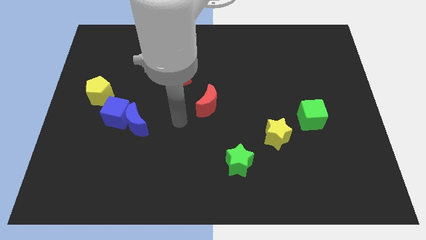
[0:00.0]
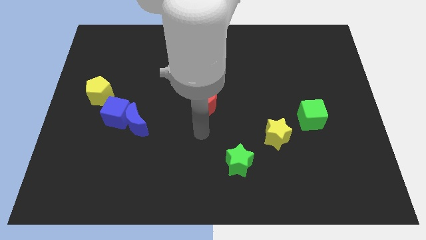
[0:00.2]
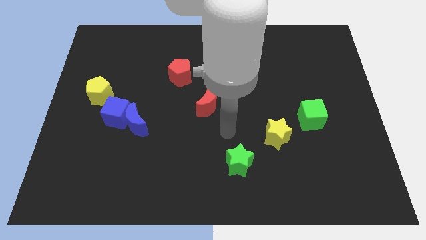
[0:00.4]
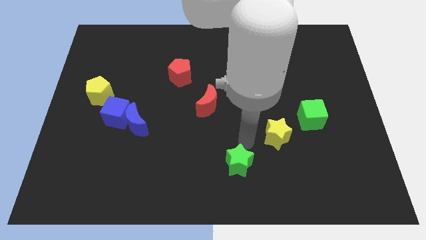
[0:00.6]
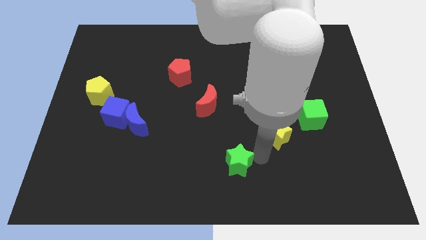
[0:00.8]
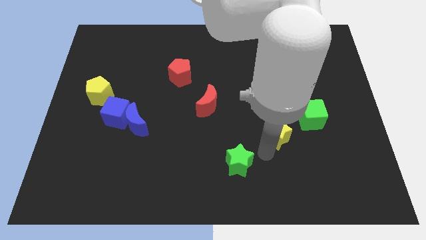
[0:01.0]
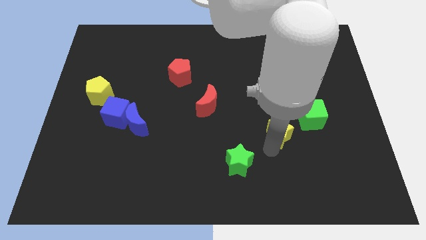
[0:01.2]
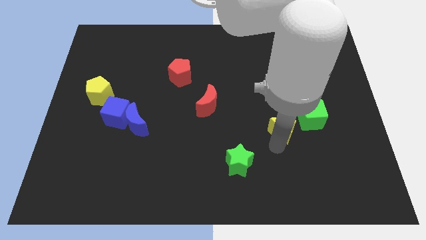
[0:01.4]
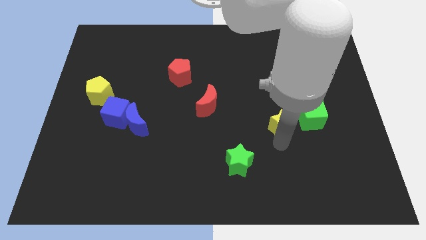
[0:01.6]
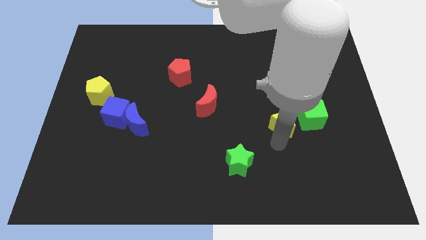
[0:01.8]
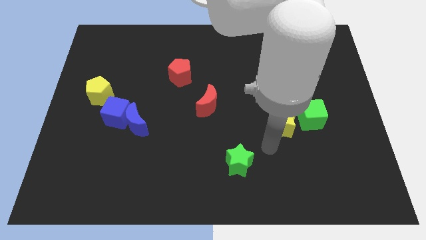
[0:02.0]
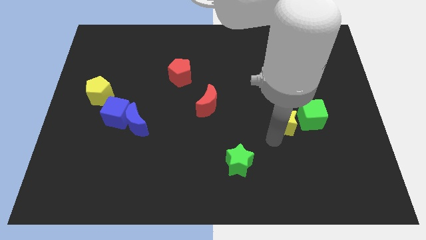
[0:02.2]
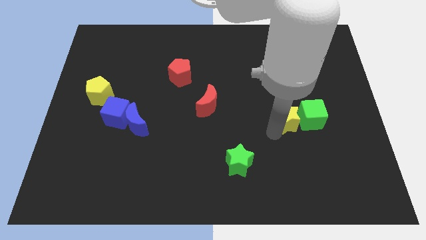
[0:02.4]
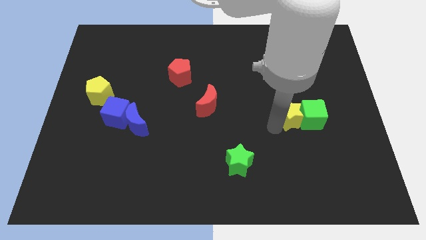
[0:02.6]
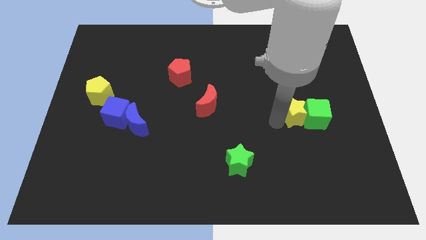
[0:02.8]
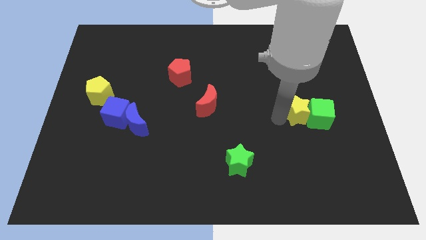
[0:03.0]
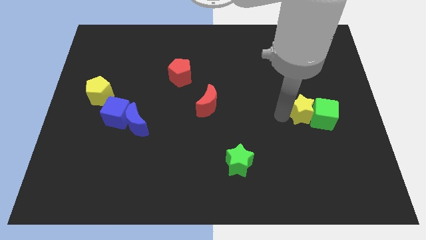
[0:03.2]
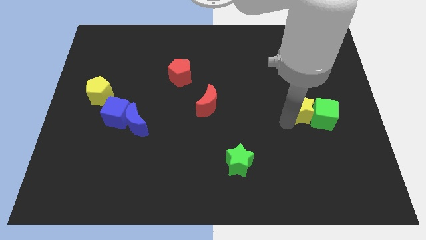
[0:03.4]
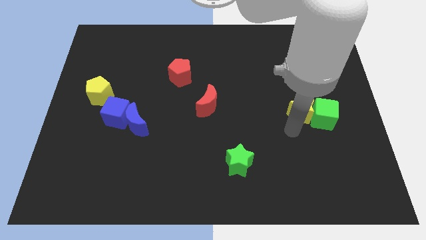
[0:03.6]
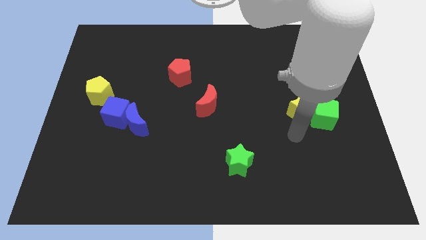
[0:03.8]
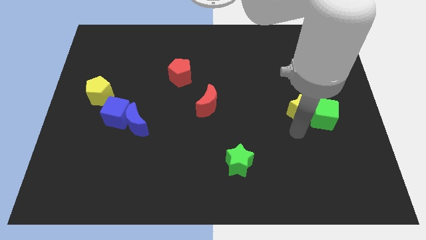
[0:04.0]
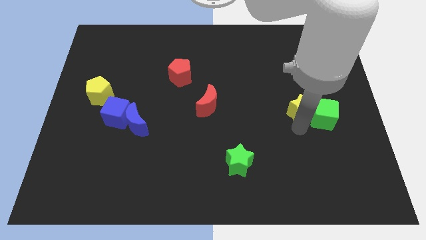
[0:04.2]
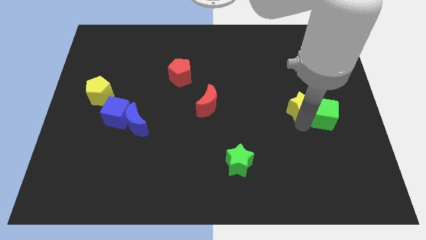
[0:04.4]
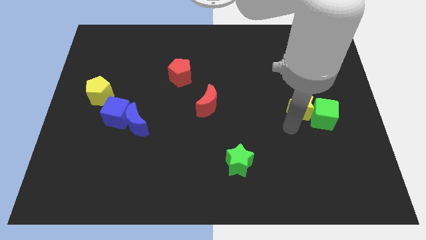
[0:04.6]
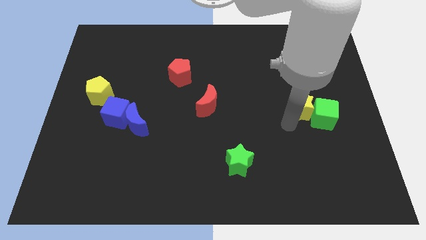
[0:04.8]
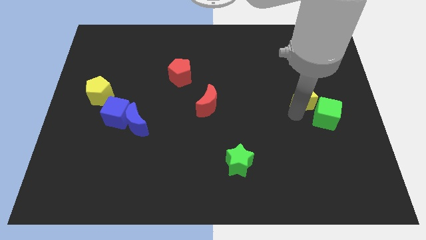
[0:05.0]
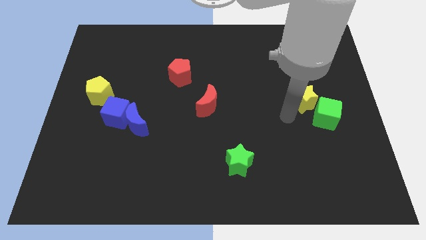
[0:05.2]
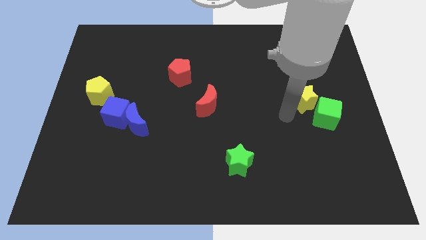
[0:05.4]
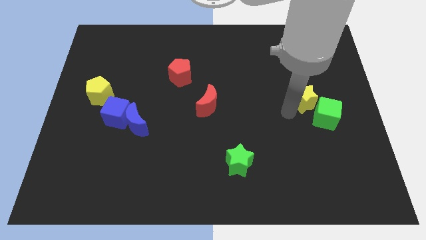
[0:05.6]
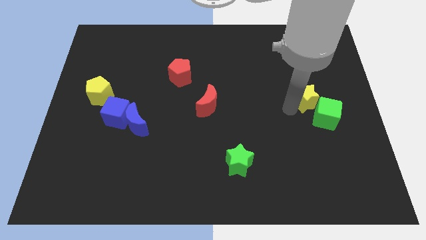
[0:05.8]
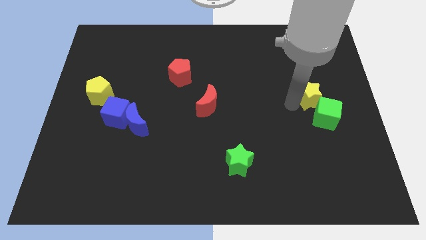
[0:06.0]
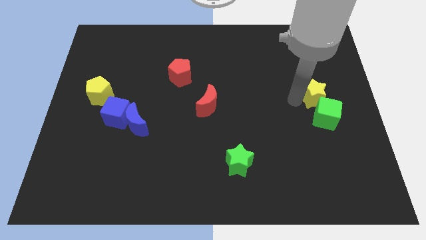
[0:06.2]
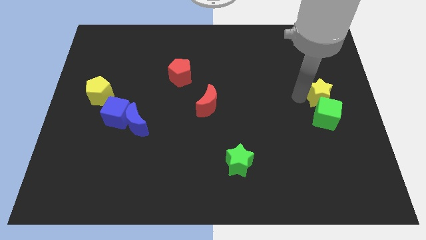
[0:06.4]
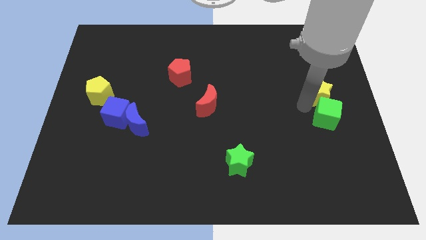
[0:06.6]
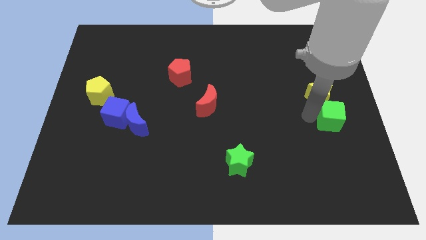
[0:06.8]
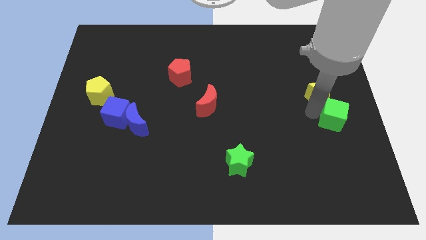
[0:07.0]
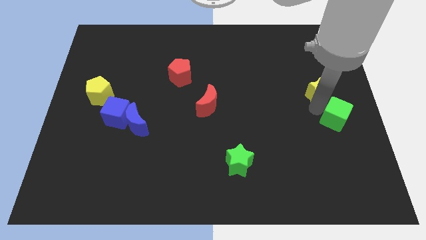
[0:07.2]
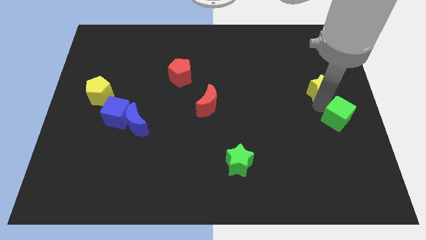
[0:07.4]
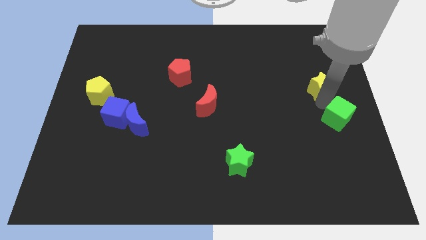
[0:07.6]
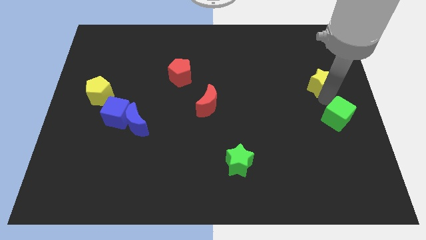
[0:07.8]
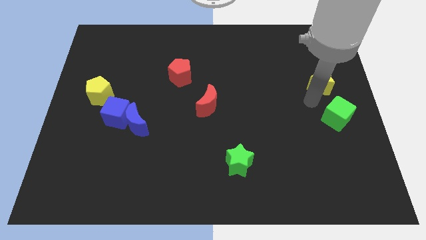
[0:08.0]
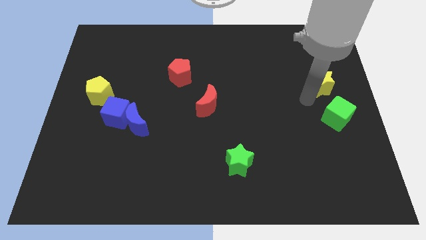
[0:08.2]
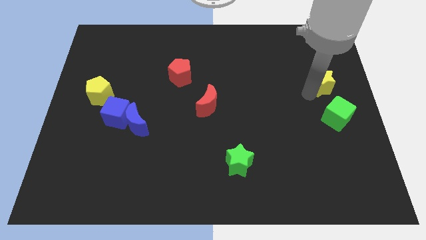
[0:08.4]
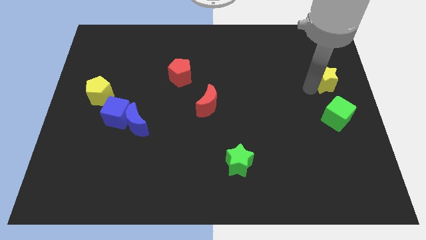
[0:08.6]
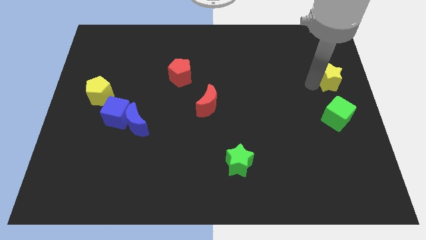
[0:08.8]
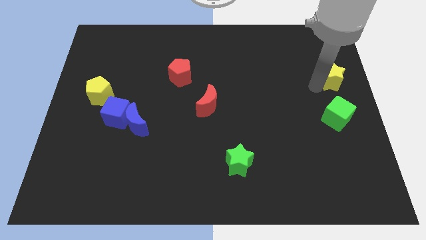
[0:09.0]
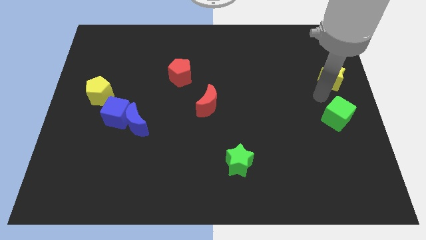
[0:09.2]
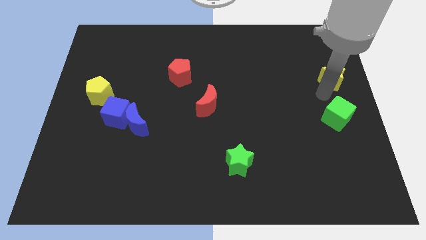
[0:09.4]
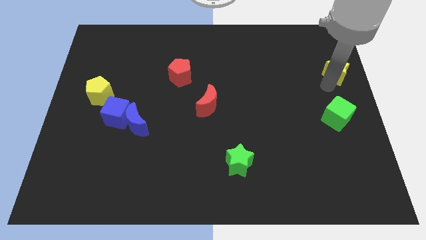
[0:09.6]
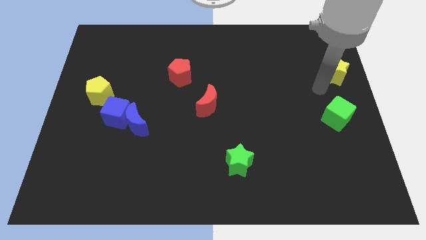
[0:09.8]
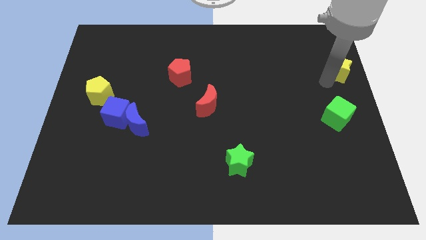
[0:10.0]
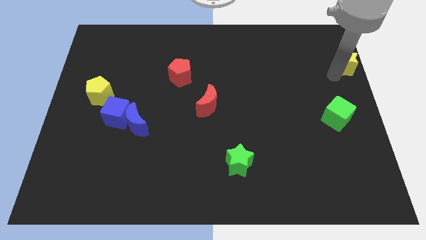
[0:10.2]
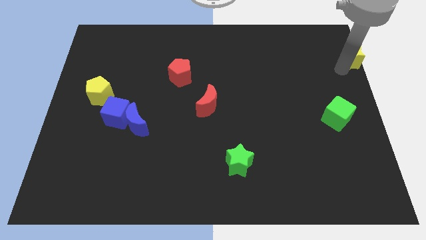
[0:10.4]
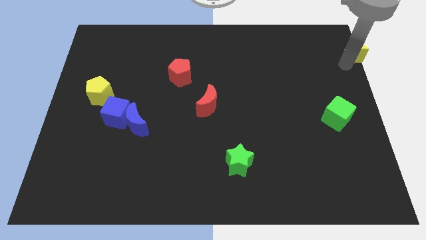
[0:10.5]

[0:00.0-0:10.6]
slide the yellow star to the upper right corner

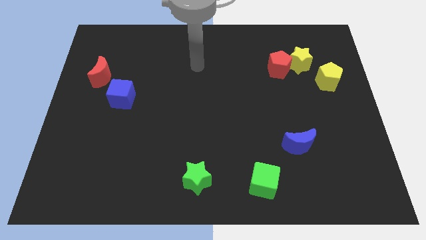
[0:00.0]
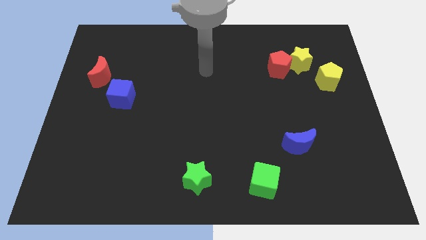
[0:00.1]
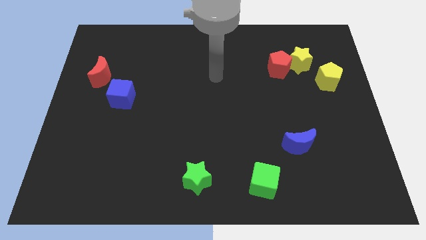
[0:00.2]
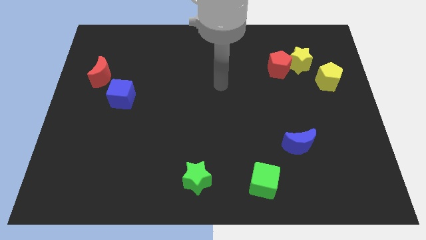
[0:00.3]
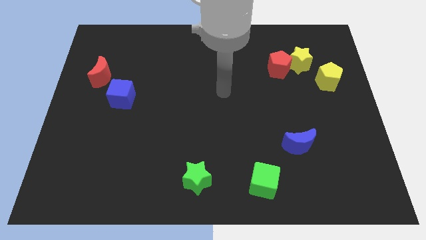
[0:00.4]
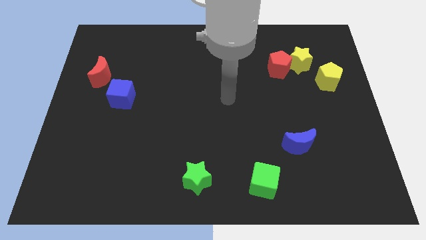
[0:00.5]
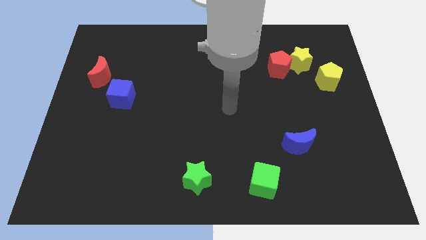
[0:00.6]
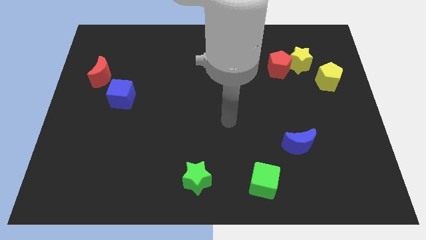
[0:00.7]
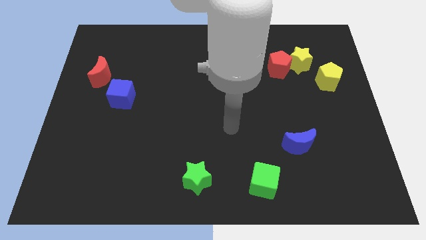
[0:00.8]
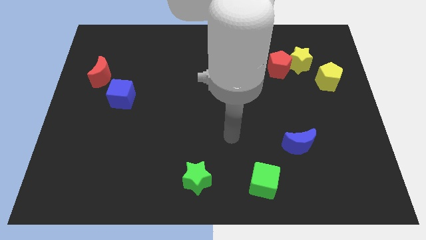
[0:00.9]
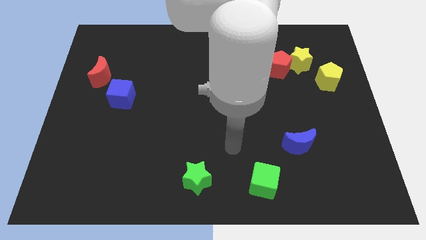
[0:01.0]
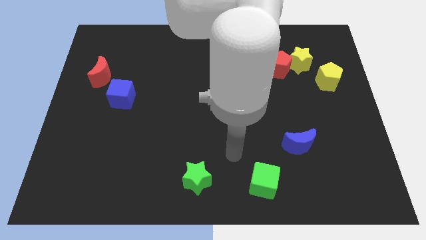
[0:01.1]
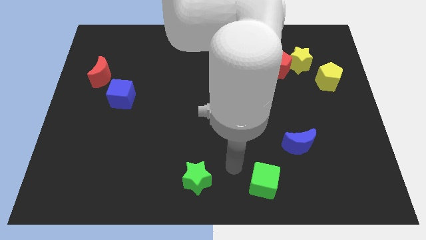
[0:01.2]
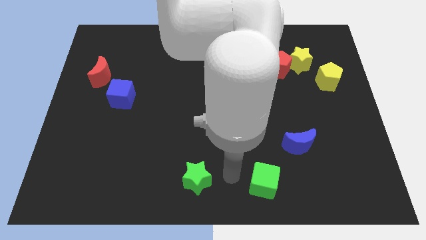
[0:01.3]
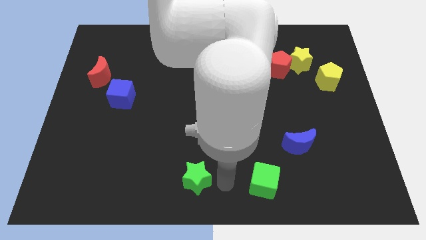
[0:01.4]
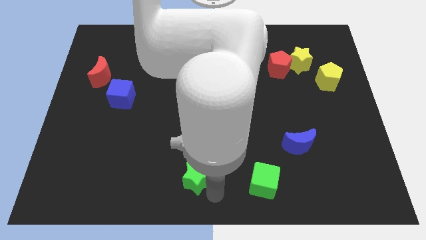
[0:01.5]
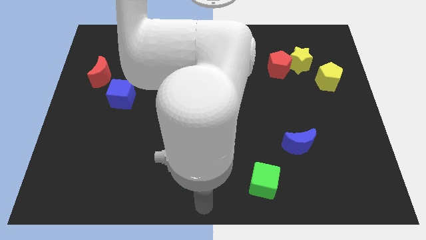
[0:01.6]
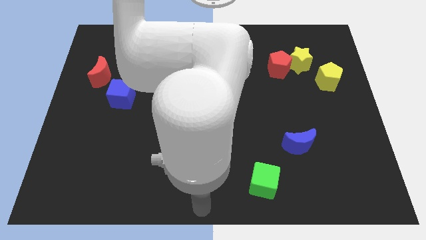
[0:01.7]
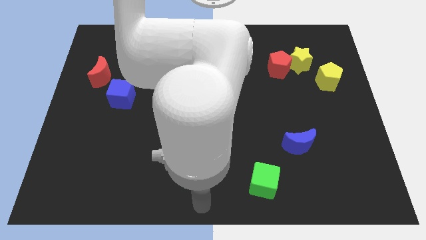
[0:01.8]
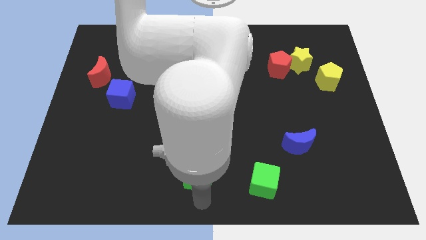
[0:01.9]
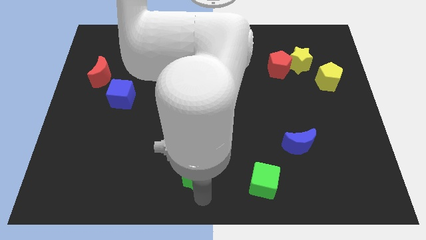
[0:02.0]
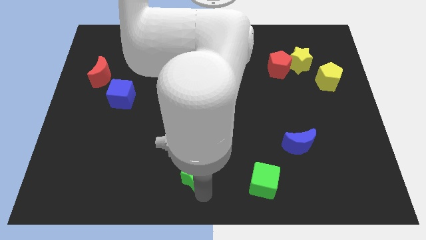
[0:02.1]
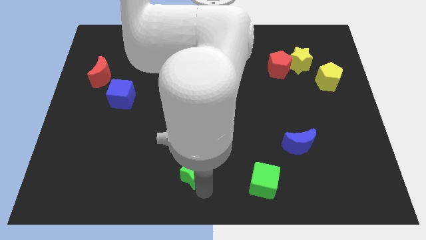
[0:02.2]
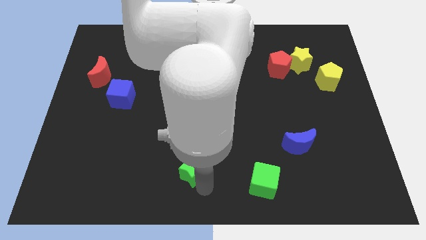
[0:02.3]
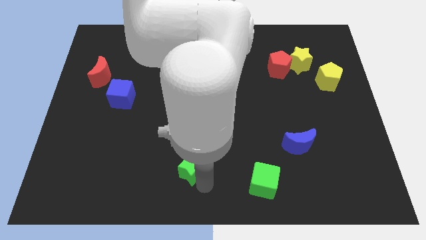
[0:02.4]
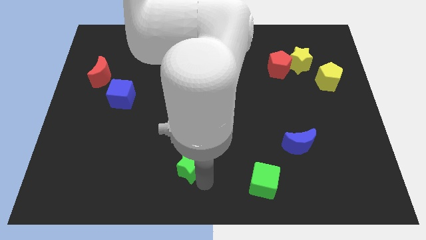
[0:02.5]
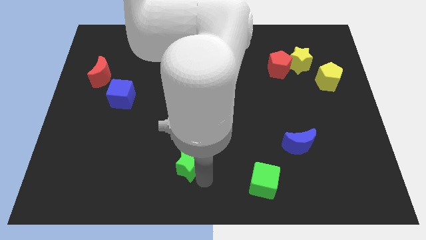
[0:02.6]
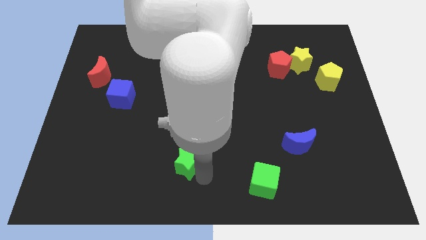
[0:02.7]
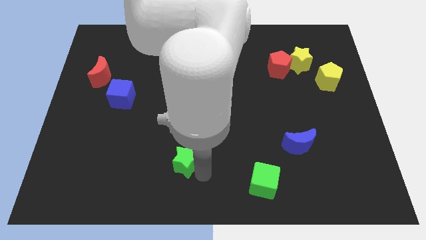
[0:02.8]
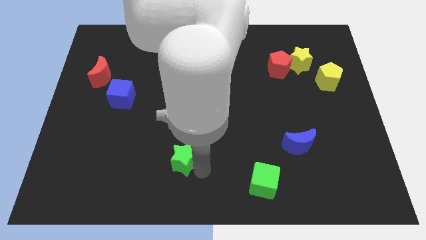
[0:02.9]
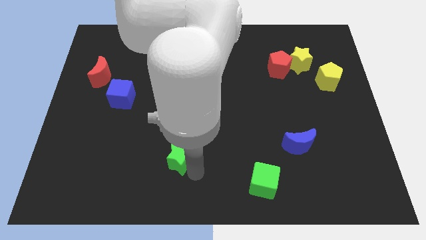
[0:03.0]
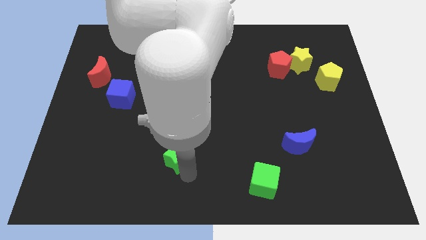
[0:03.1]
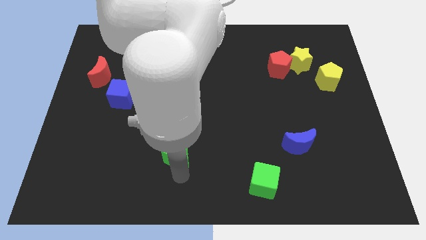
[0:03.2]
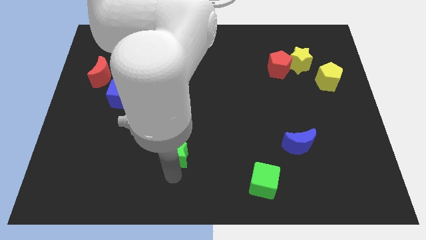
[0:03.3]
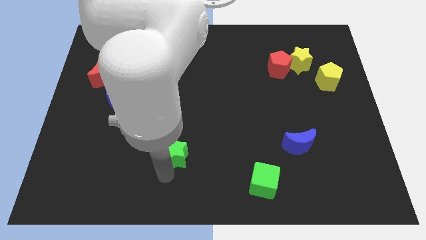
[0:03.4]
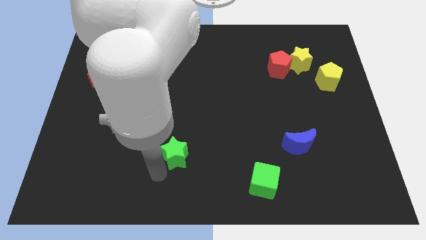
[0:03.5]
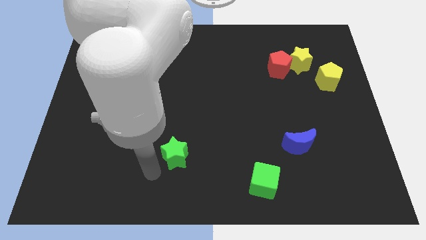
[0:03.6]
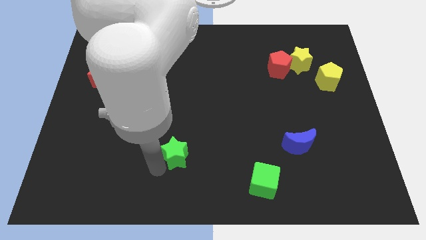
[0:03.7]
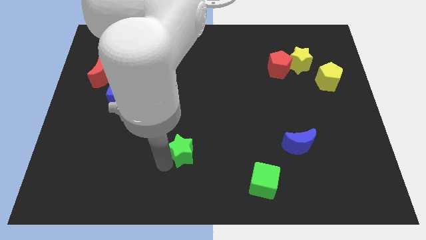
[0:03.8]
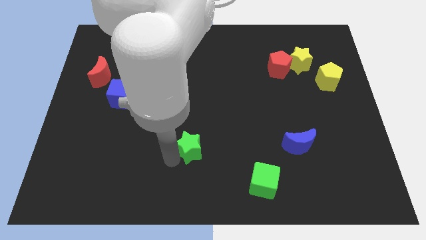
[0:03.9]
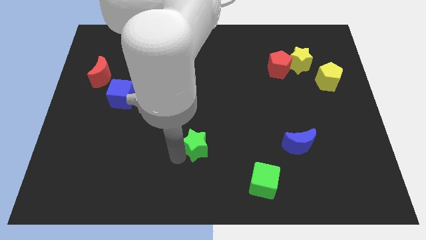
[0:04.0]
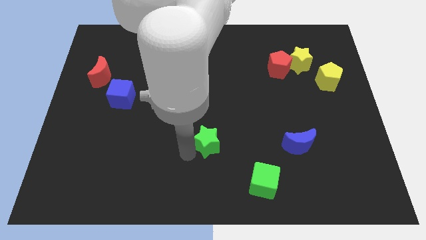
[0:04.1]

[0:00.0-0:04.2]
move the green star to the center
